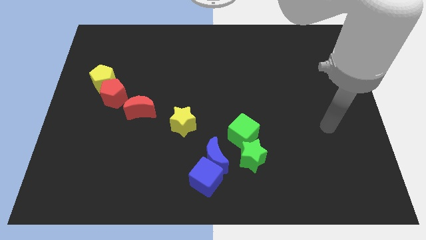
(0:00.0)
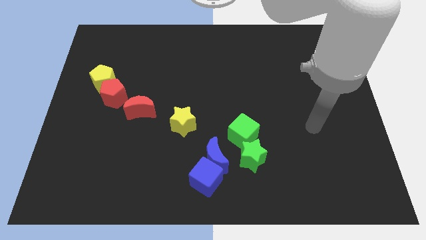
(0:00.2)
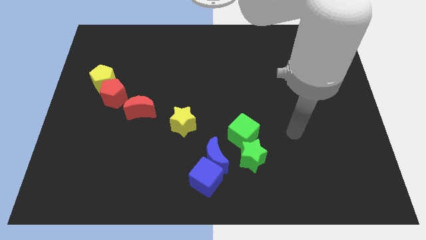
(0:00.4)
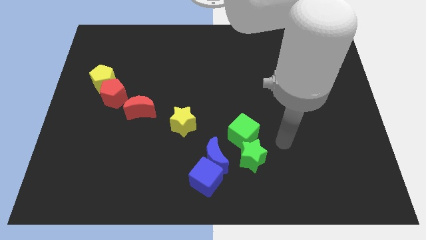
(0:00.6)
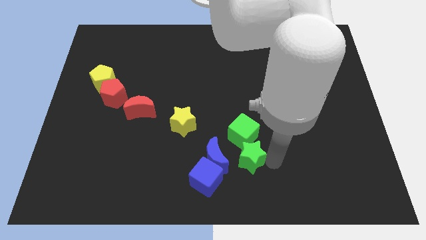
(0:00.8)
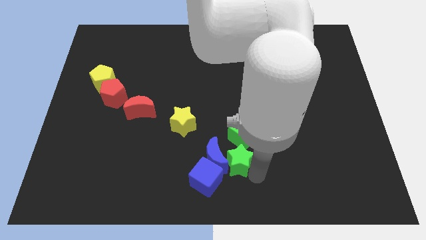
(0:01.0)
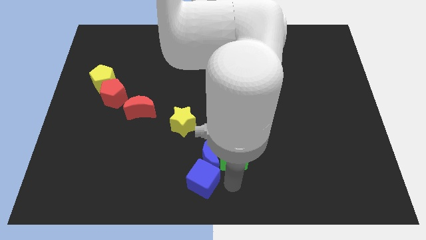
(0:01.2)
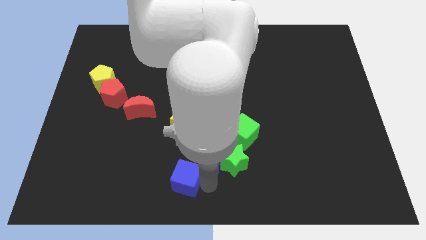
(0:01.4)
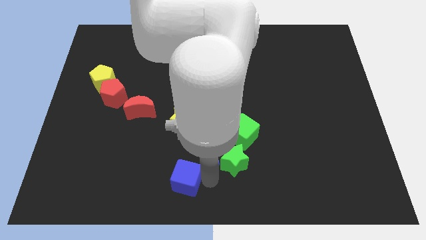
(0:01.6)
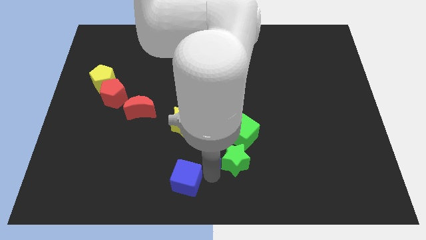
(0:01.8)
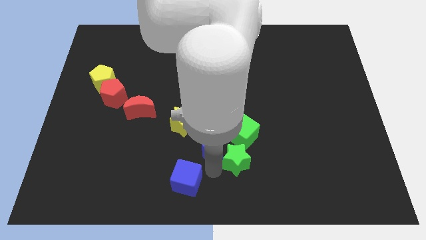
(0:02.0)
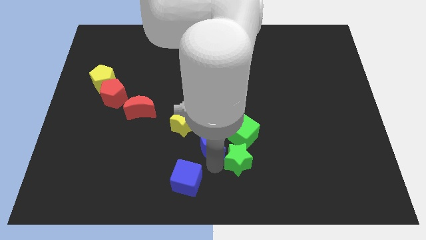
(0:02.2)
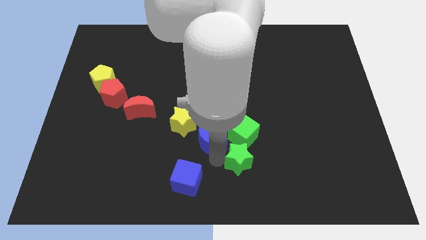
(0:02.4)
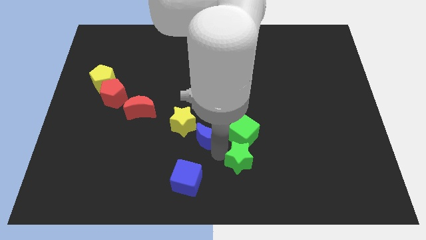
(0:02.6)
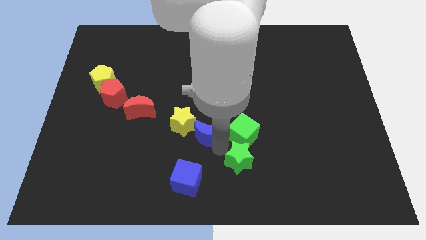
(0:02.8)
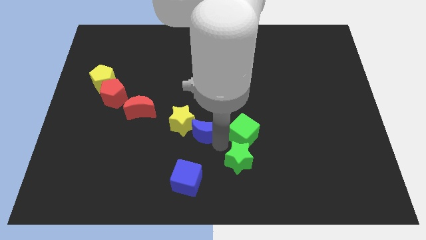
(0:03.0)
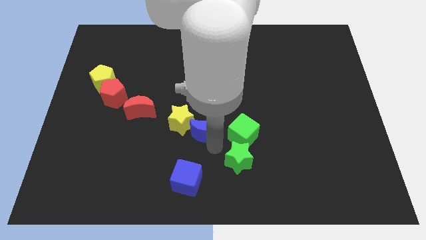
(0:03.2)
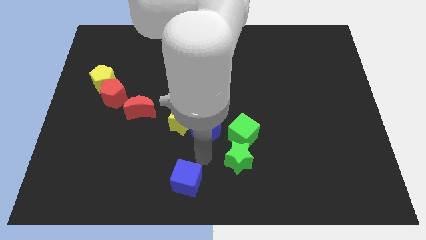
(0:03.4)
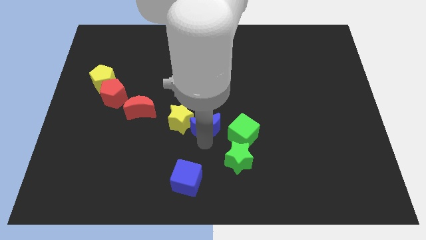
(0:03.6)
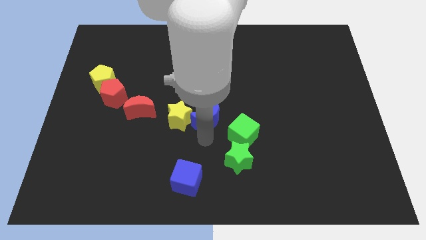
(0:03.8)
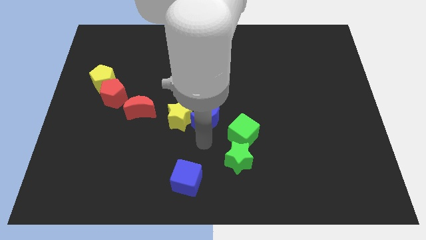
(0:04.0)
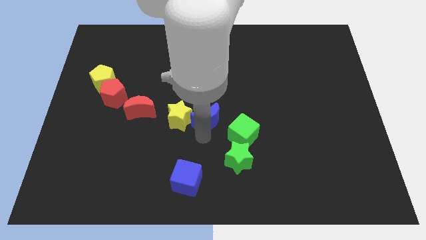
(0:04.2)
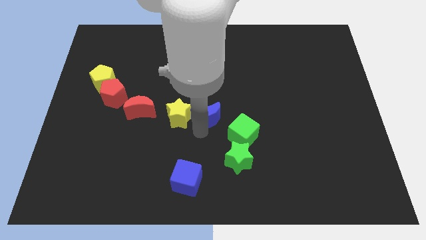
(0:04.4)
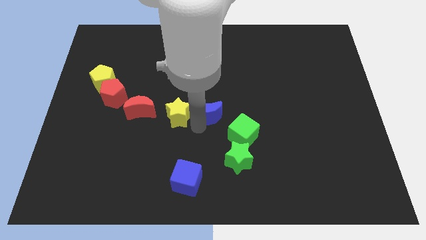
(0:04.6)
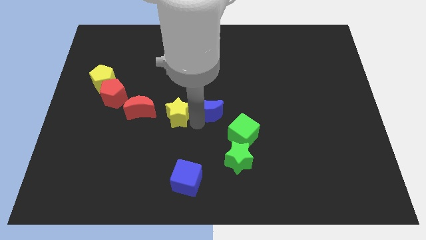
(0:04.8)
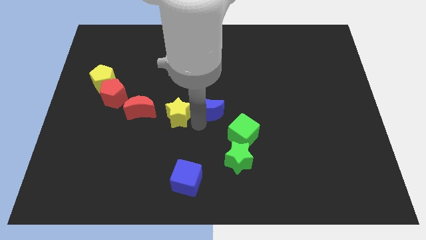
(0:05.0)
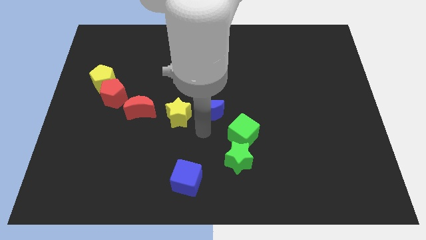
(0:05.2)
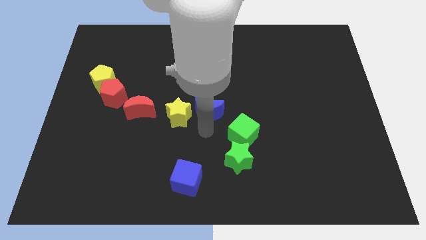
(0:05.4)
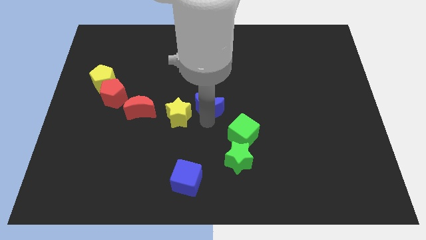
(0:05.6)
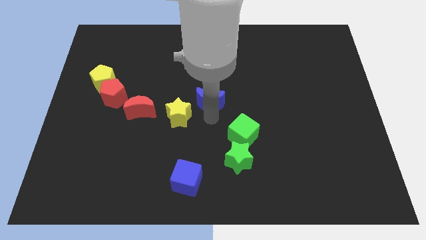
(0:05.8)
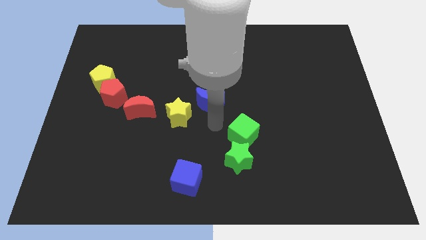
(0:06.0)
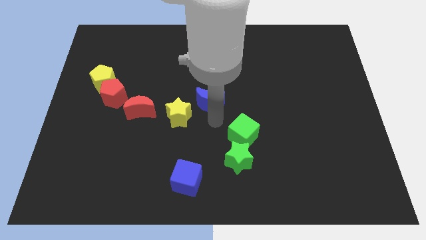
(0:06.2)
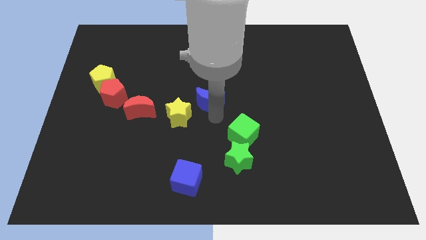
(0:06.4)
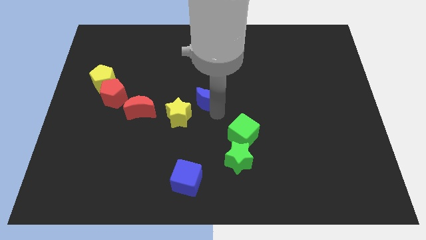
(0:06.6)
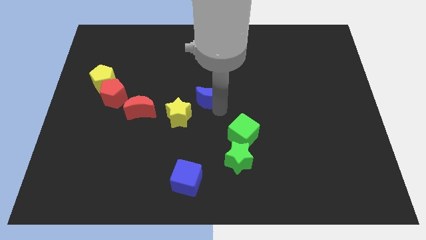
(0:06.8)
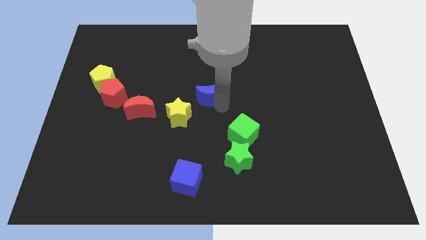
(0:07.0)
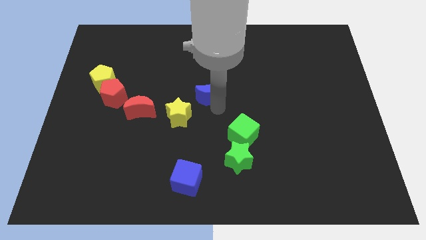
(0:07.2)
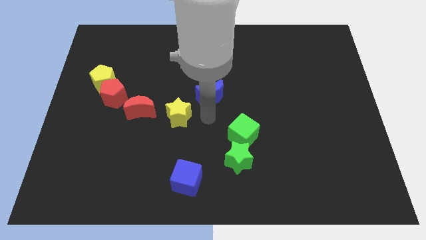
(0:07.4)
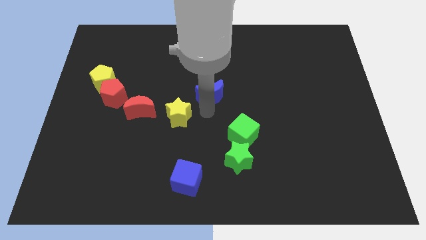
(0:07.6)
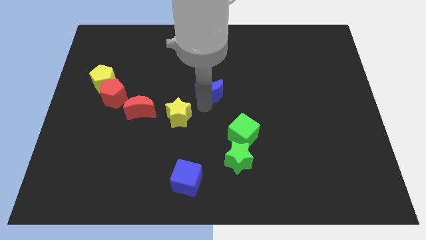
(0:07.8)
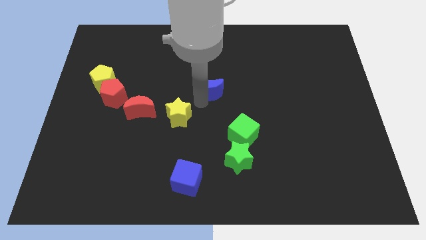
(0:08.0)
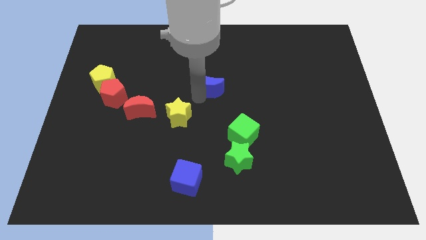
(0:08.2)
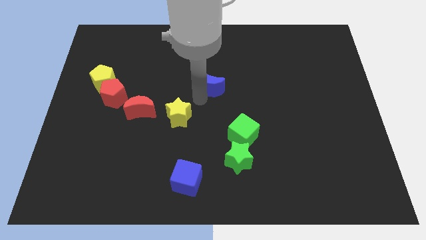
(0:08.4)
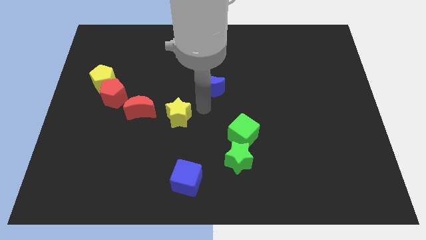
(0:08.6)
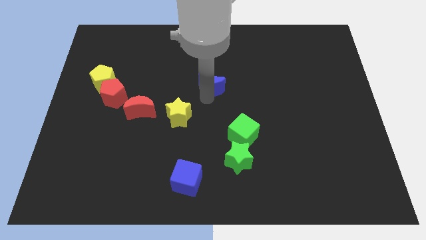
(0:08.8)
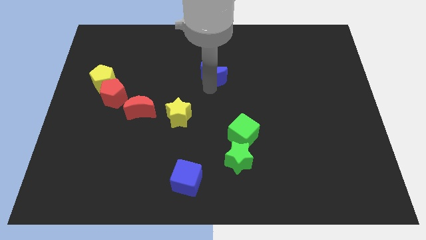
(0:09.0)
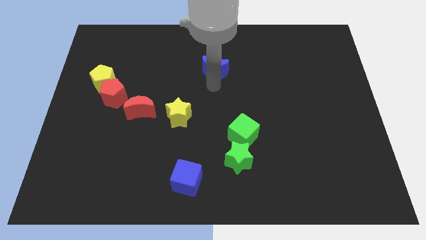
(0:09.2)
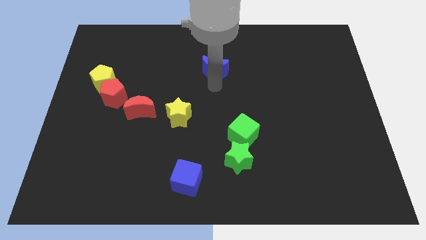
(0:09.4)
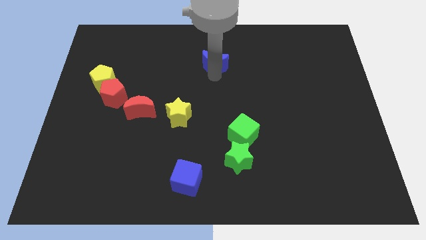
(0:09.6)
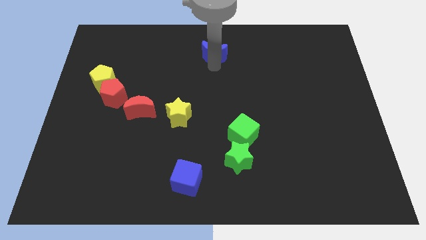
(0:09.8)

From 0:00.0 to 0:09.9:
move the blue moon to the top

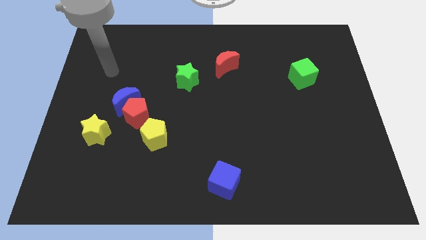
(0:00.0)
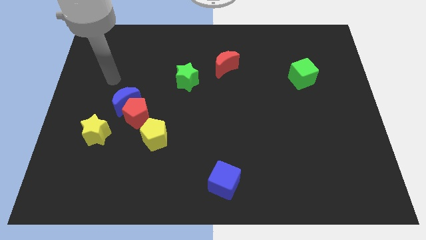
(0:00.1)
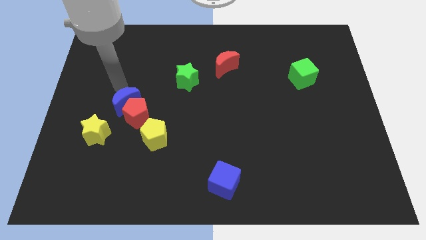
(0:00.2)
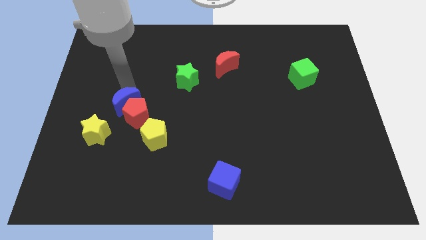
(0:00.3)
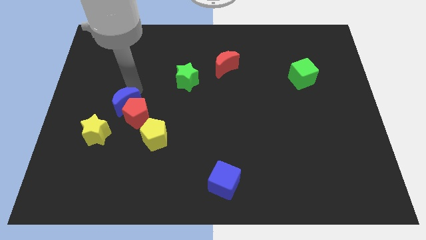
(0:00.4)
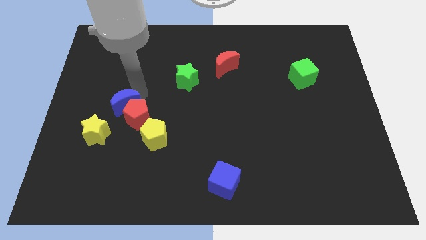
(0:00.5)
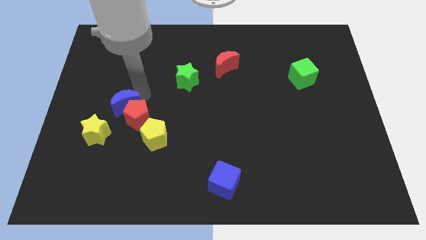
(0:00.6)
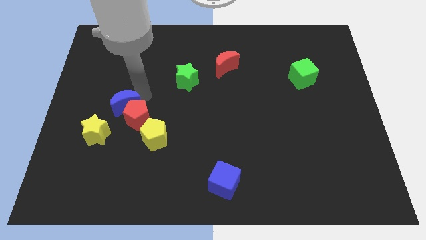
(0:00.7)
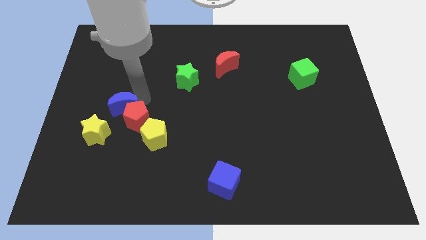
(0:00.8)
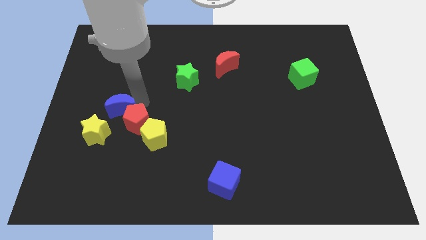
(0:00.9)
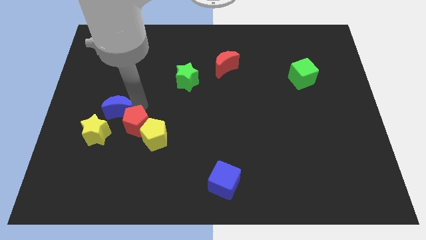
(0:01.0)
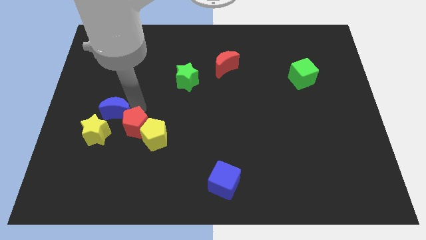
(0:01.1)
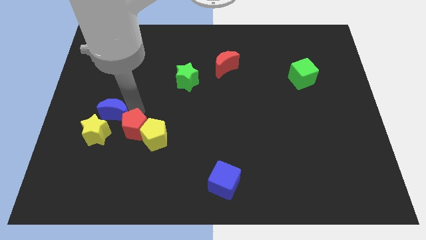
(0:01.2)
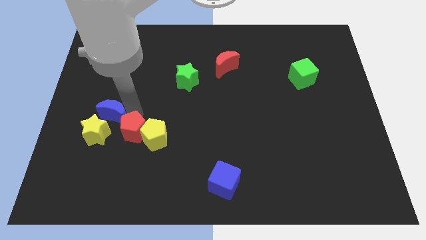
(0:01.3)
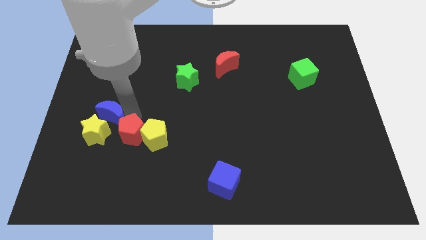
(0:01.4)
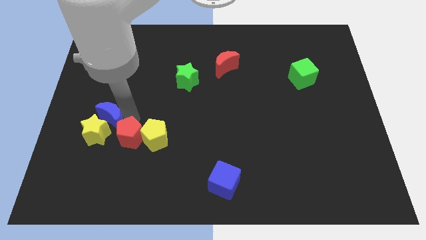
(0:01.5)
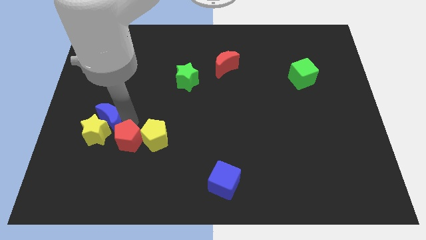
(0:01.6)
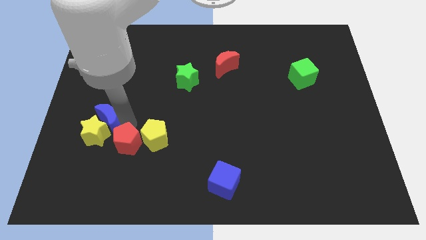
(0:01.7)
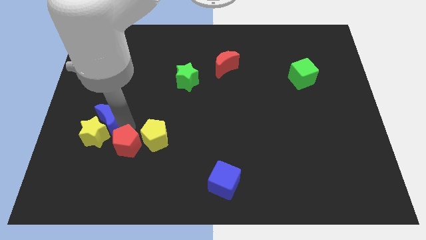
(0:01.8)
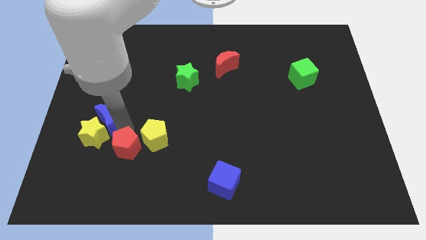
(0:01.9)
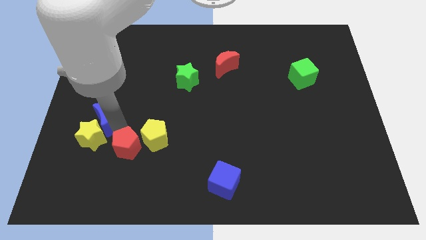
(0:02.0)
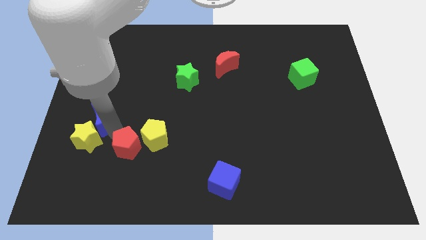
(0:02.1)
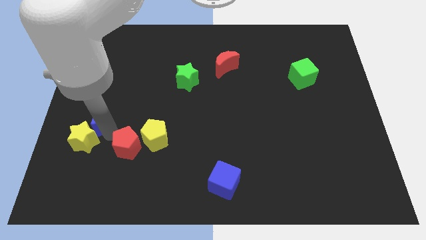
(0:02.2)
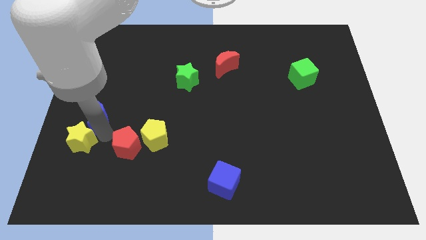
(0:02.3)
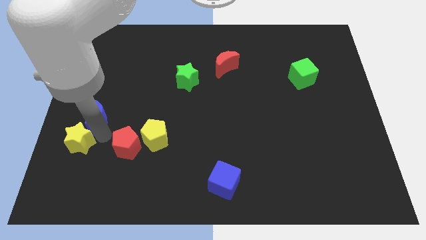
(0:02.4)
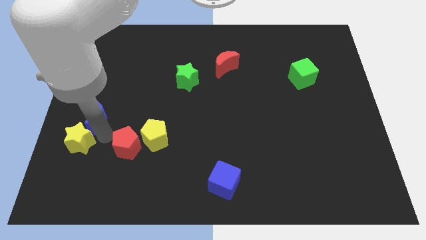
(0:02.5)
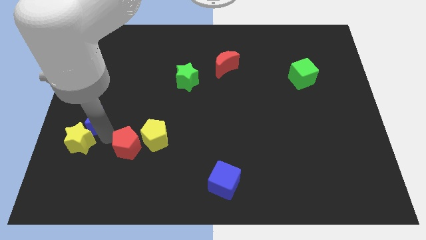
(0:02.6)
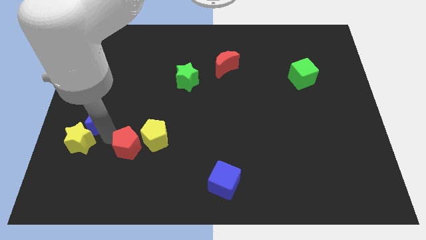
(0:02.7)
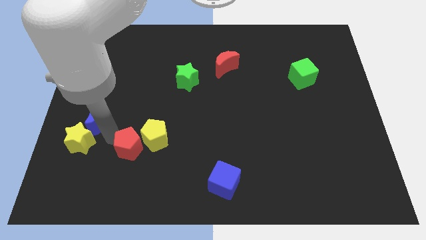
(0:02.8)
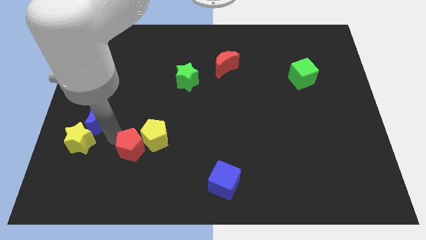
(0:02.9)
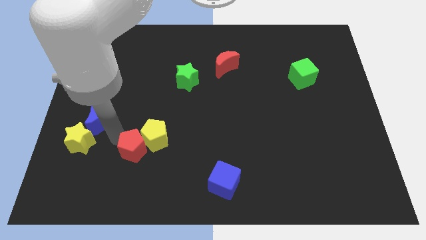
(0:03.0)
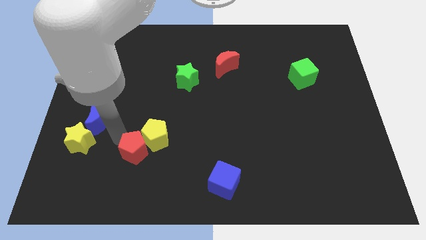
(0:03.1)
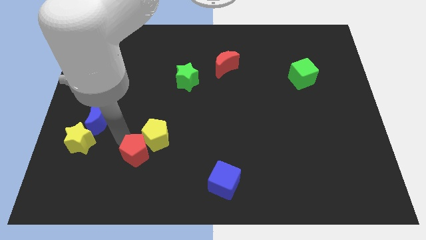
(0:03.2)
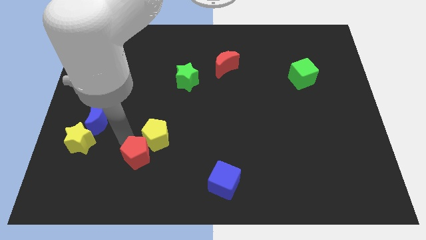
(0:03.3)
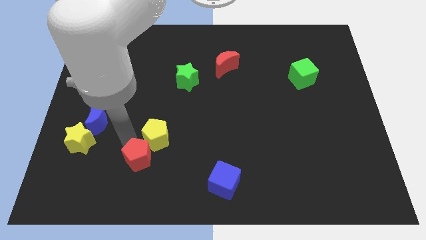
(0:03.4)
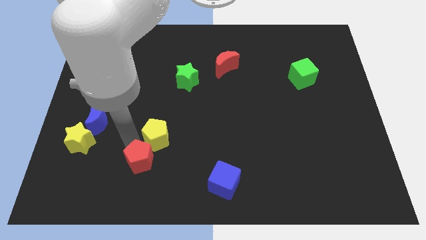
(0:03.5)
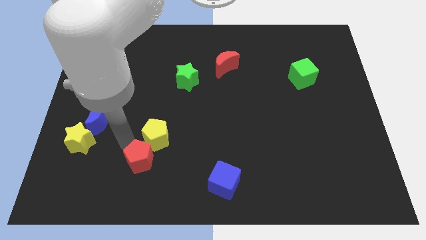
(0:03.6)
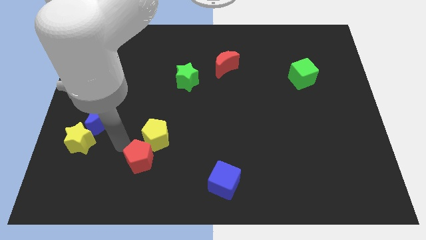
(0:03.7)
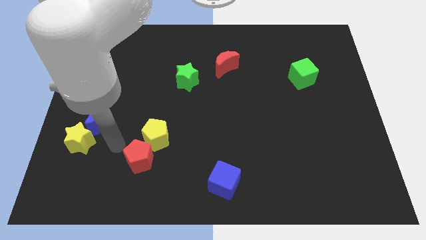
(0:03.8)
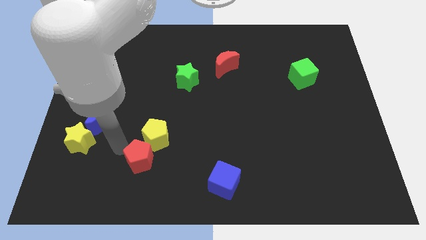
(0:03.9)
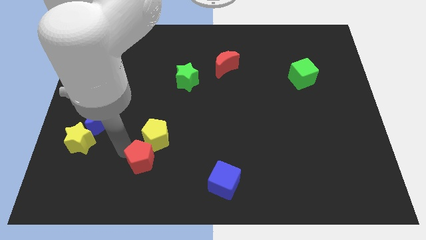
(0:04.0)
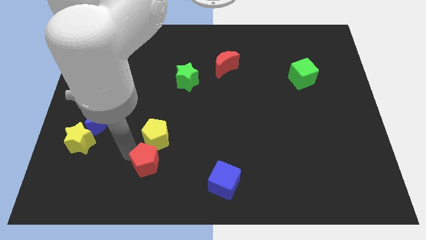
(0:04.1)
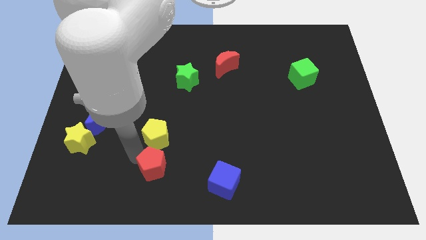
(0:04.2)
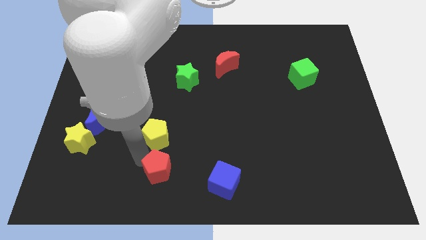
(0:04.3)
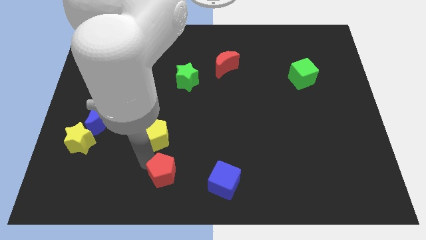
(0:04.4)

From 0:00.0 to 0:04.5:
slide the red pentagon to the bottom
